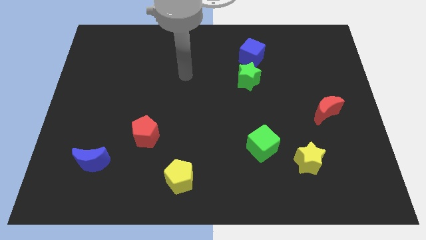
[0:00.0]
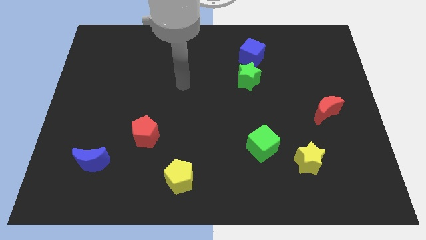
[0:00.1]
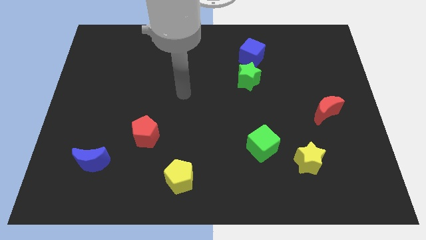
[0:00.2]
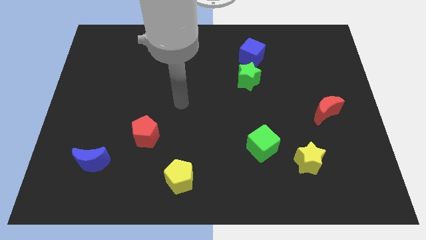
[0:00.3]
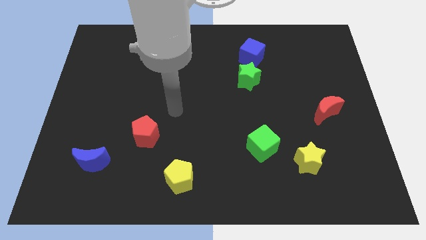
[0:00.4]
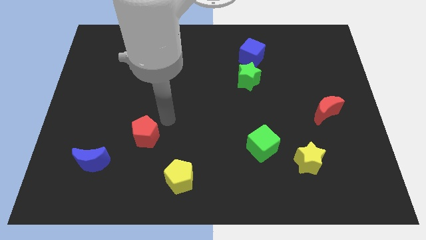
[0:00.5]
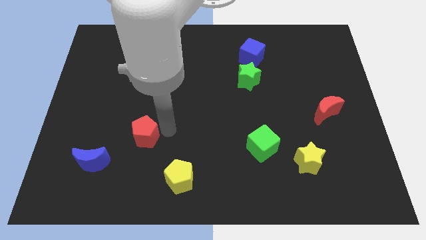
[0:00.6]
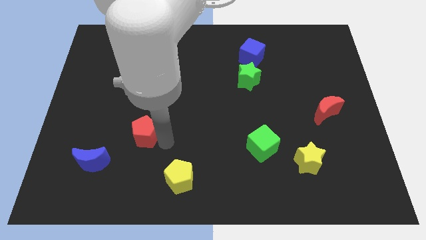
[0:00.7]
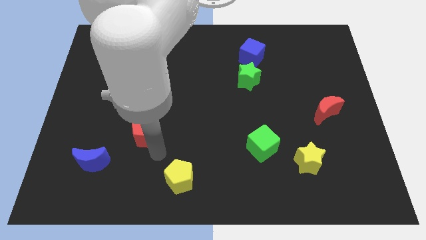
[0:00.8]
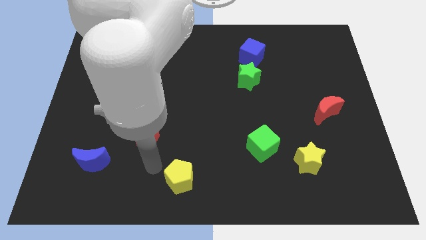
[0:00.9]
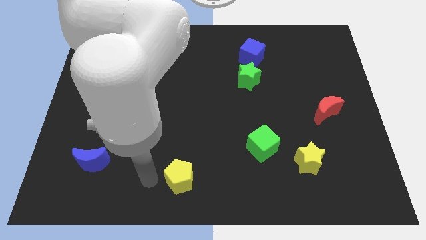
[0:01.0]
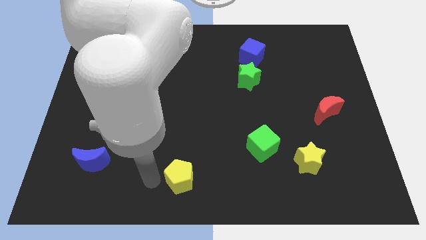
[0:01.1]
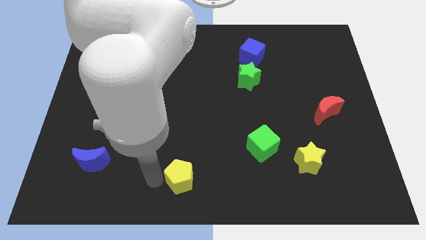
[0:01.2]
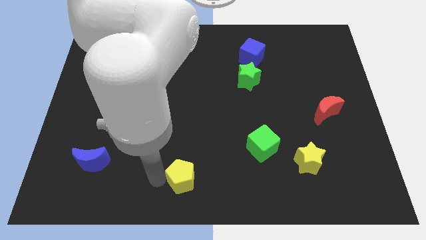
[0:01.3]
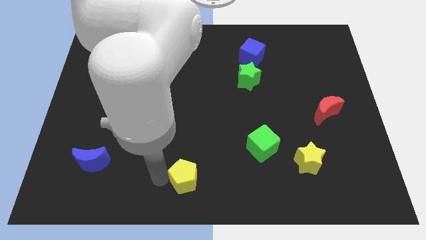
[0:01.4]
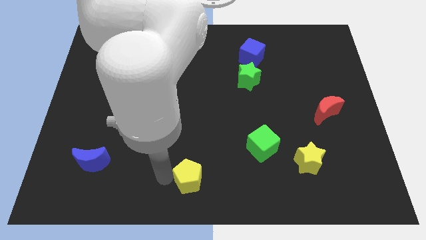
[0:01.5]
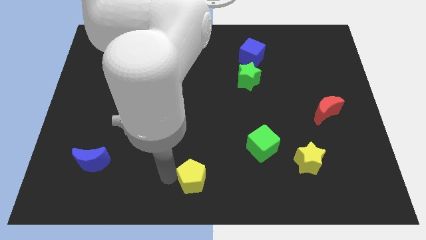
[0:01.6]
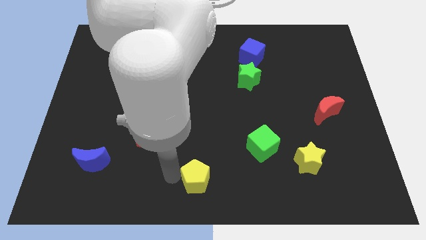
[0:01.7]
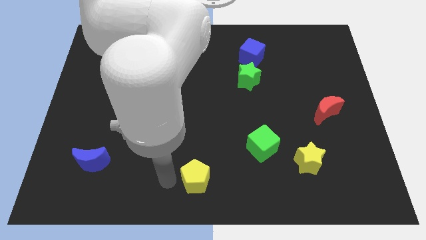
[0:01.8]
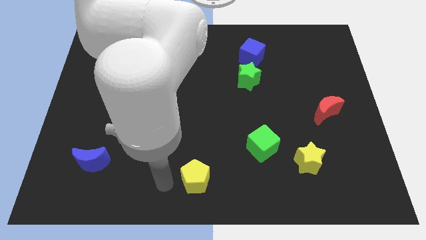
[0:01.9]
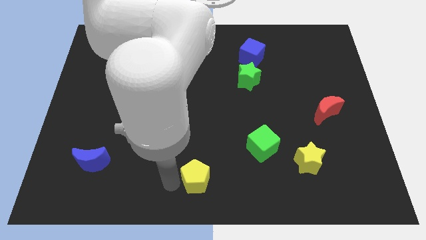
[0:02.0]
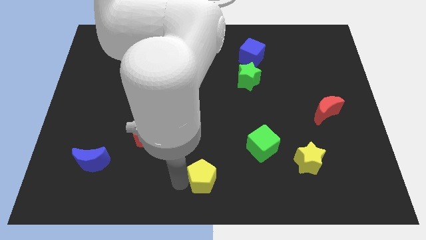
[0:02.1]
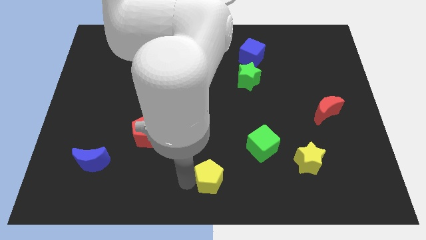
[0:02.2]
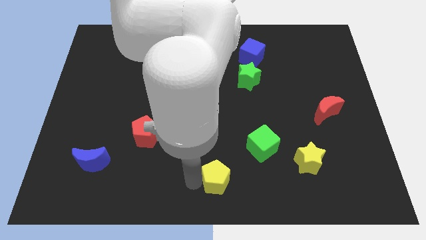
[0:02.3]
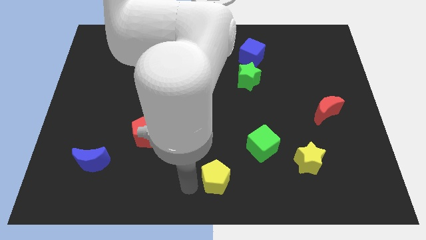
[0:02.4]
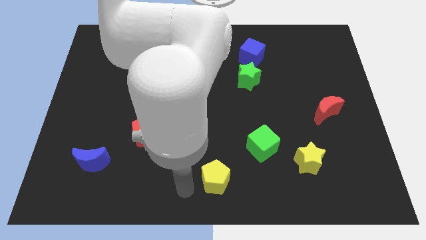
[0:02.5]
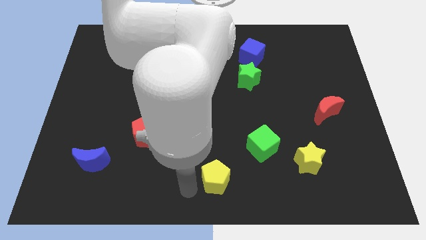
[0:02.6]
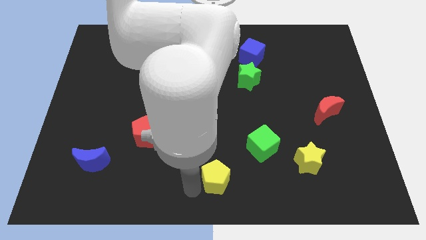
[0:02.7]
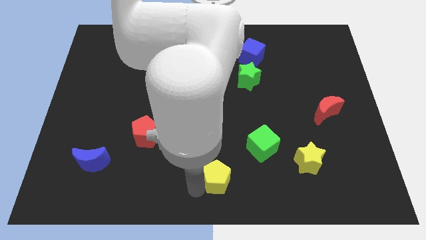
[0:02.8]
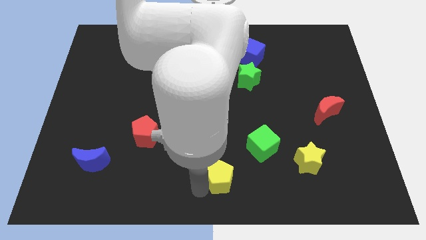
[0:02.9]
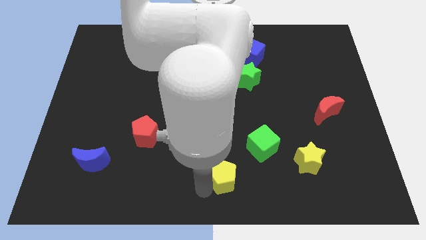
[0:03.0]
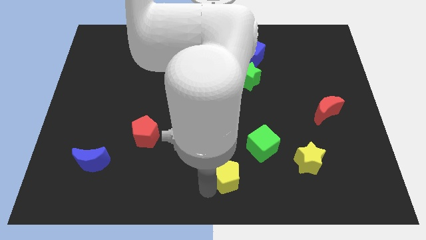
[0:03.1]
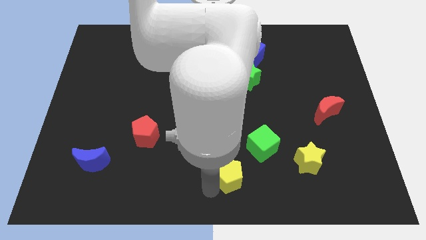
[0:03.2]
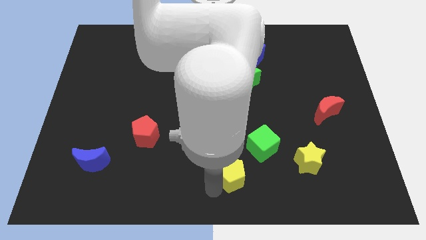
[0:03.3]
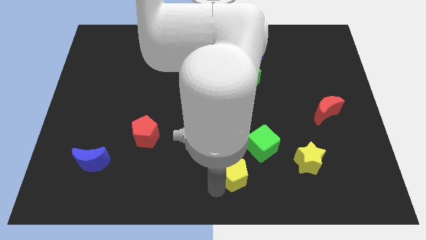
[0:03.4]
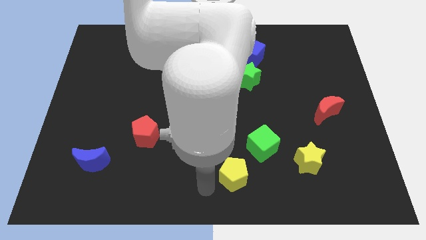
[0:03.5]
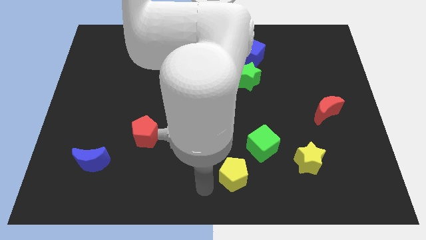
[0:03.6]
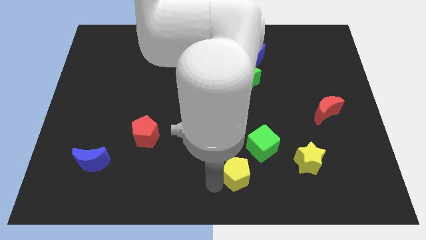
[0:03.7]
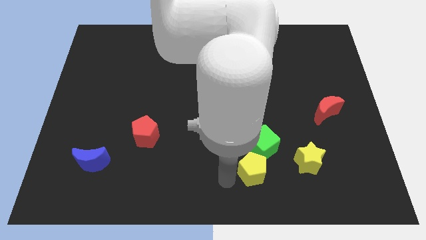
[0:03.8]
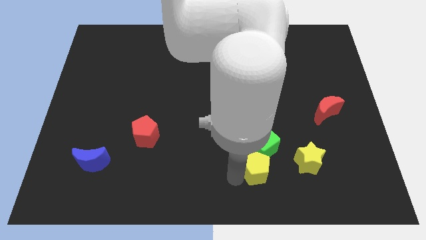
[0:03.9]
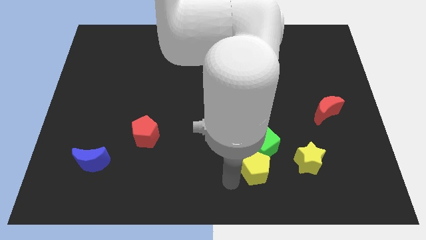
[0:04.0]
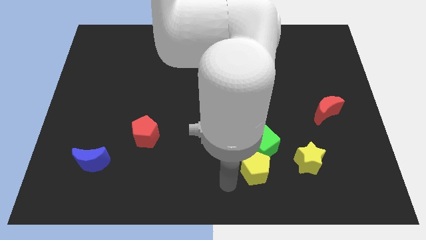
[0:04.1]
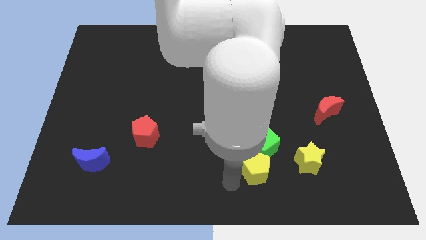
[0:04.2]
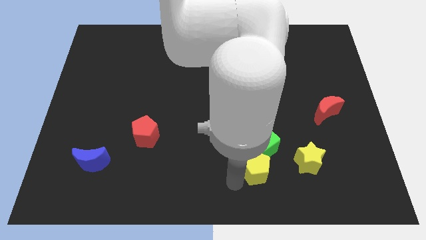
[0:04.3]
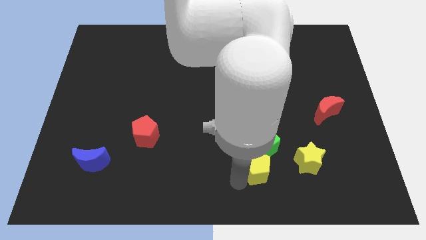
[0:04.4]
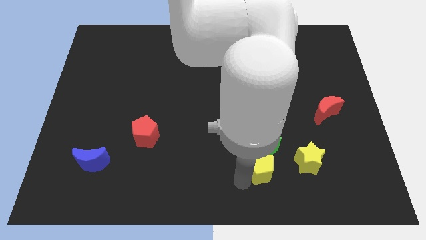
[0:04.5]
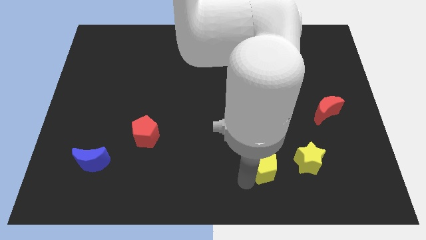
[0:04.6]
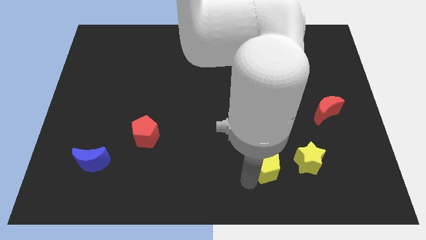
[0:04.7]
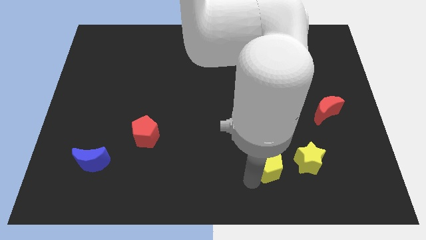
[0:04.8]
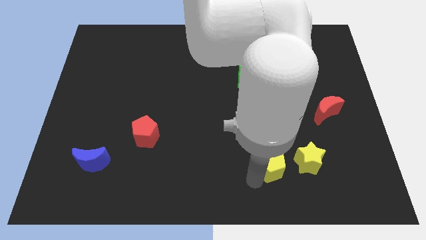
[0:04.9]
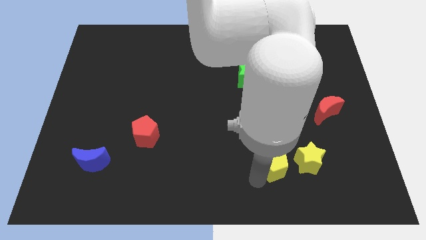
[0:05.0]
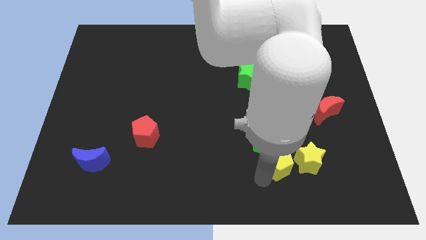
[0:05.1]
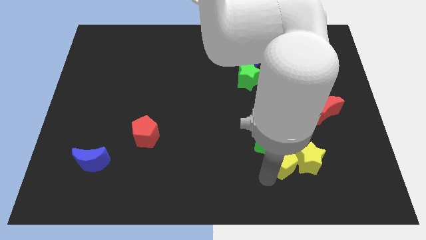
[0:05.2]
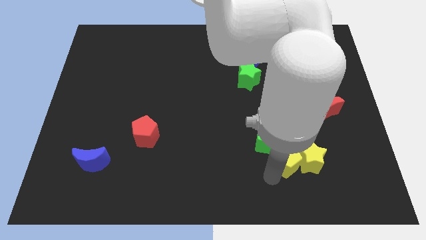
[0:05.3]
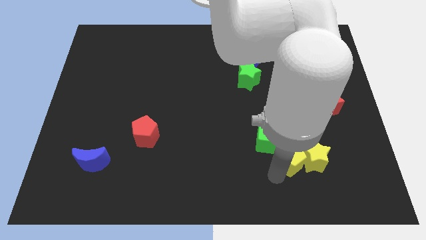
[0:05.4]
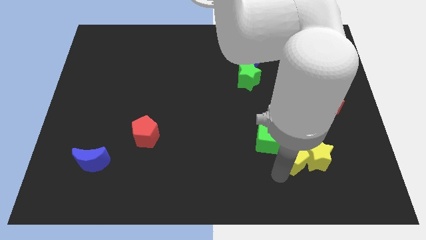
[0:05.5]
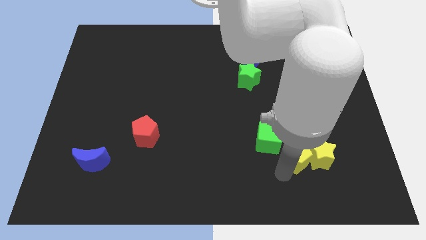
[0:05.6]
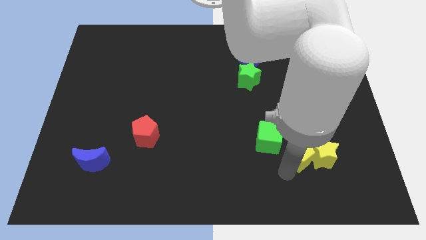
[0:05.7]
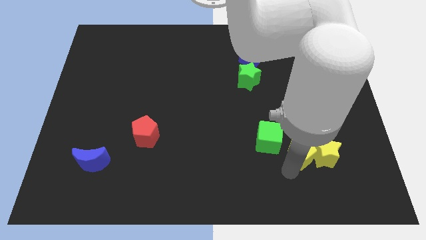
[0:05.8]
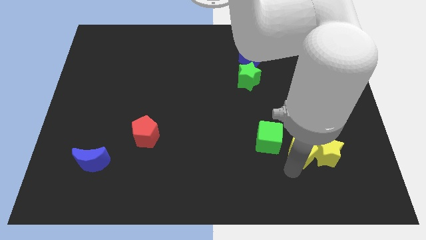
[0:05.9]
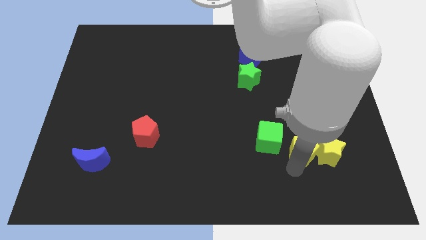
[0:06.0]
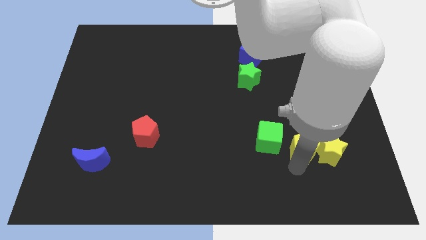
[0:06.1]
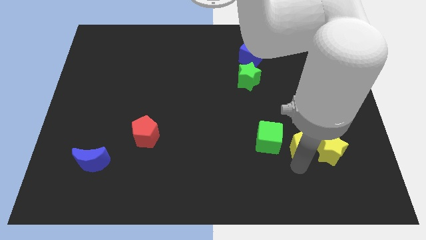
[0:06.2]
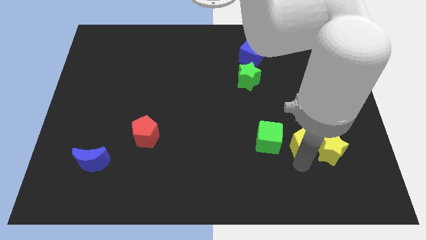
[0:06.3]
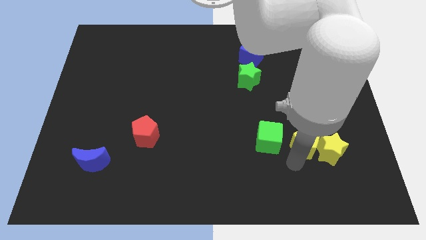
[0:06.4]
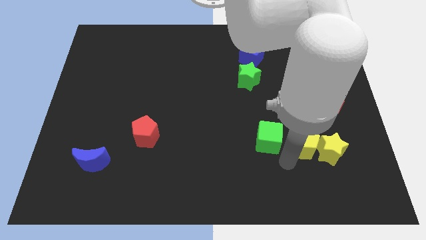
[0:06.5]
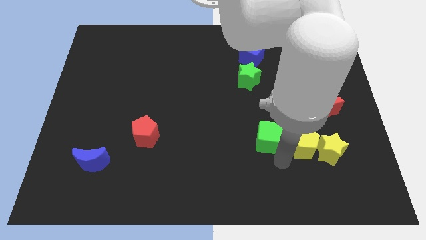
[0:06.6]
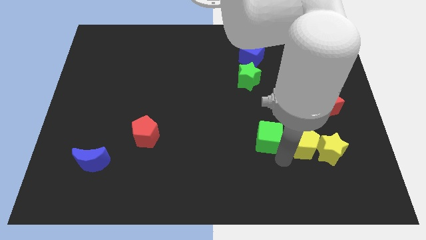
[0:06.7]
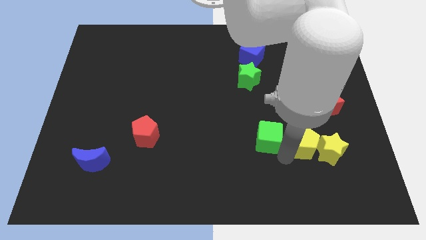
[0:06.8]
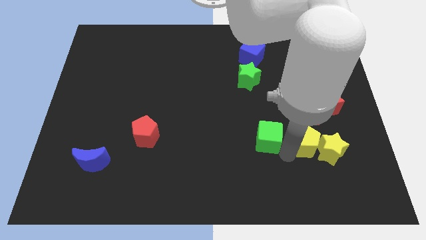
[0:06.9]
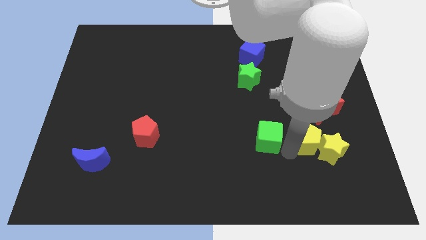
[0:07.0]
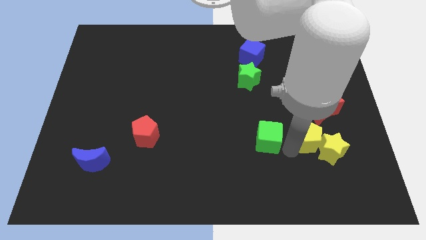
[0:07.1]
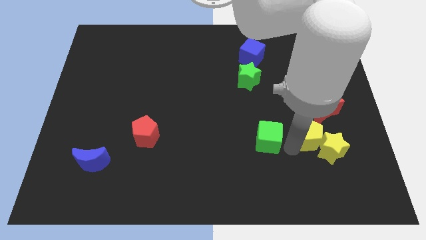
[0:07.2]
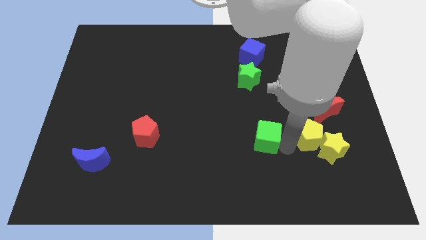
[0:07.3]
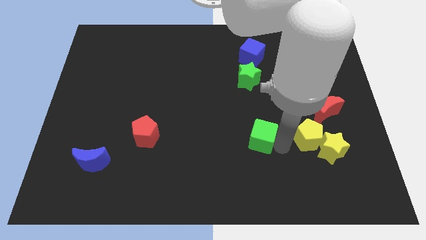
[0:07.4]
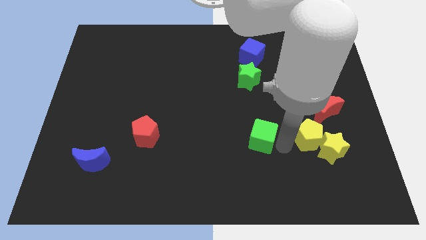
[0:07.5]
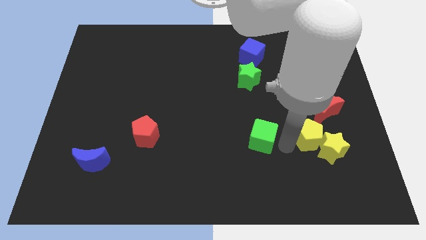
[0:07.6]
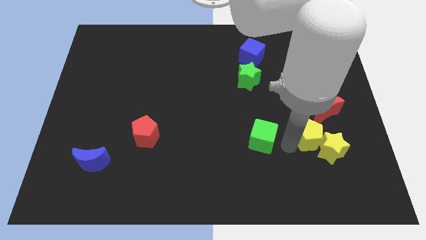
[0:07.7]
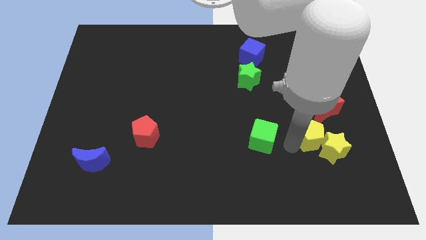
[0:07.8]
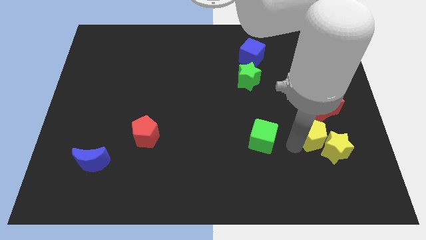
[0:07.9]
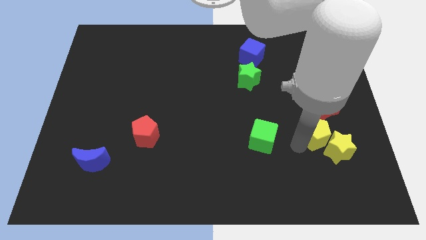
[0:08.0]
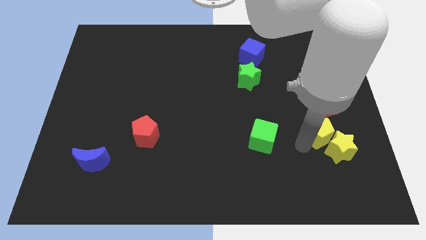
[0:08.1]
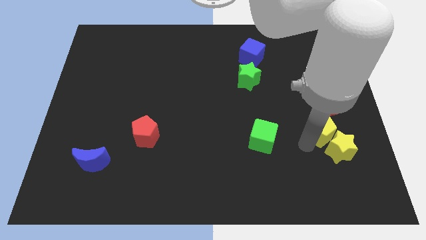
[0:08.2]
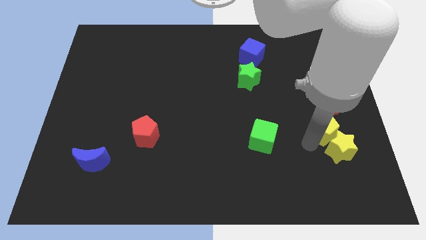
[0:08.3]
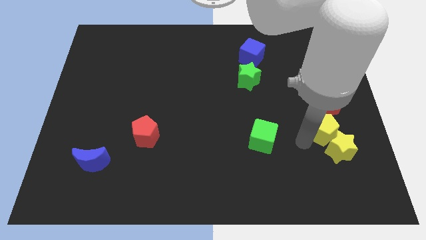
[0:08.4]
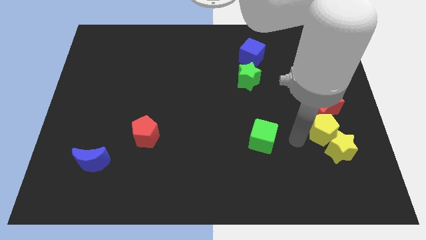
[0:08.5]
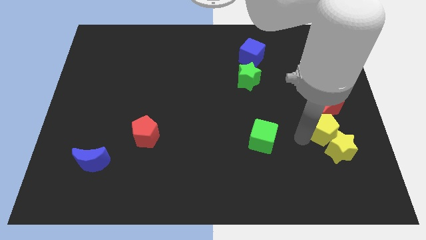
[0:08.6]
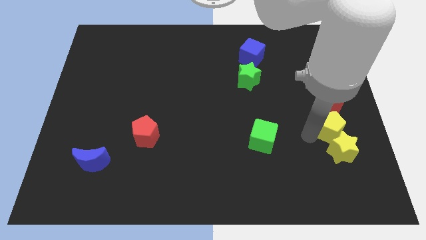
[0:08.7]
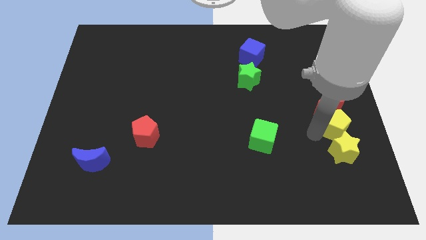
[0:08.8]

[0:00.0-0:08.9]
slide the yellow pentagon to the right side
